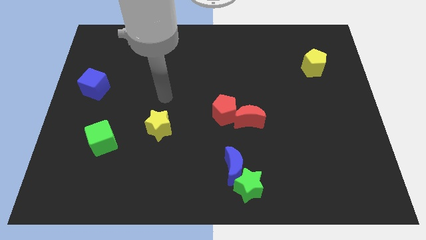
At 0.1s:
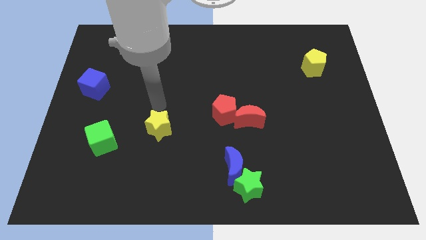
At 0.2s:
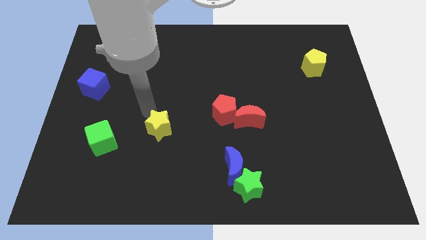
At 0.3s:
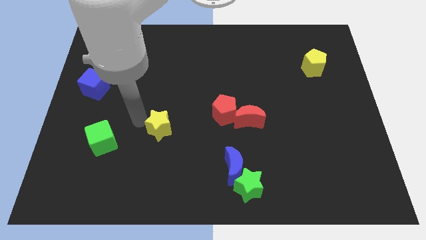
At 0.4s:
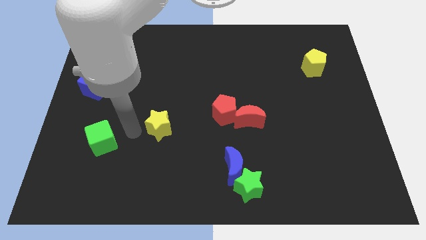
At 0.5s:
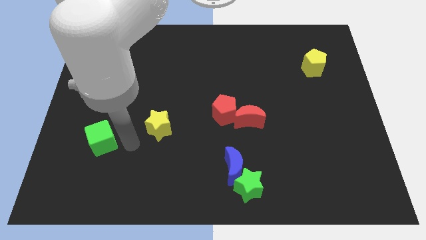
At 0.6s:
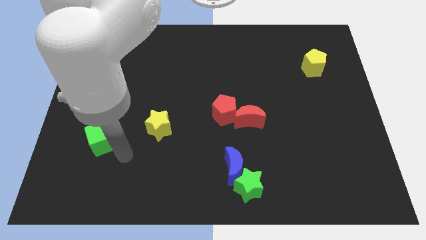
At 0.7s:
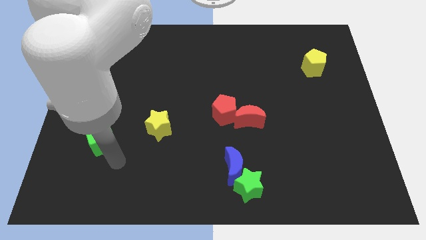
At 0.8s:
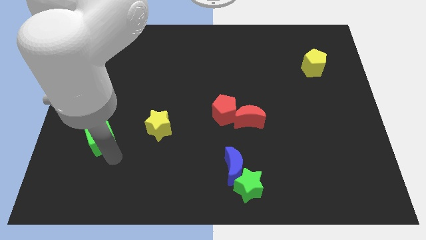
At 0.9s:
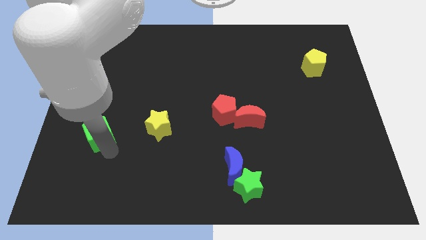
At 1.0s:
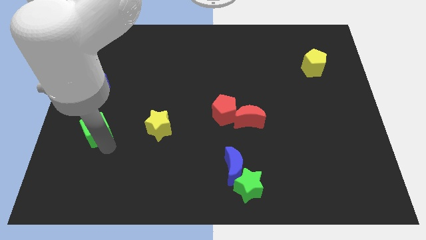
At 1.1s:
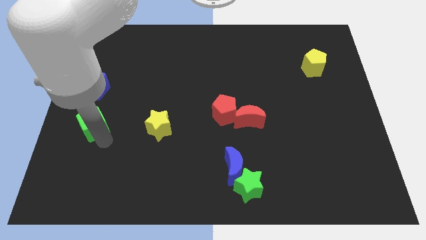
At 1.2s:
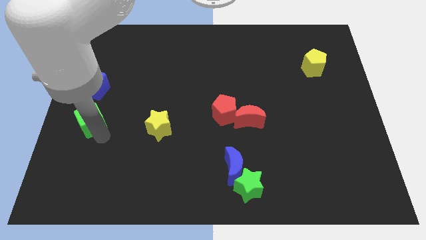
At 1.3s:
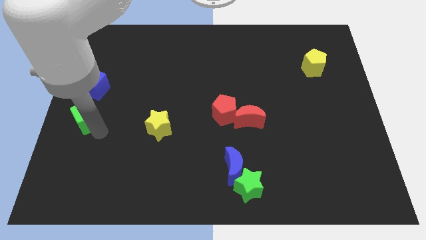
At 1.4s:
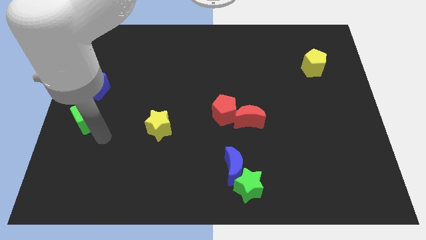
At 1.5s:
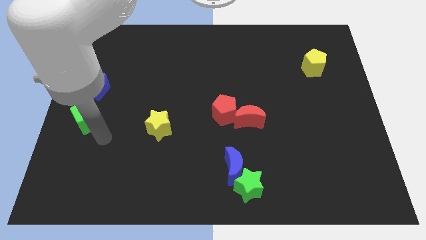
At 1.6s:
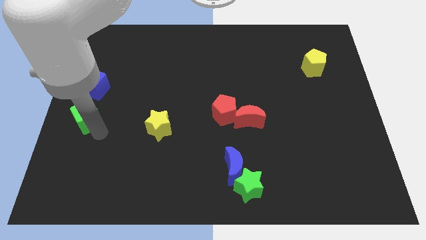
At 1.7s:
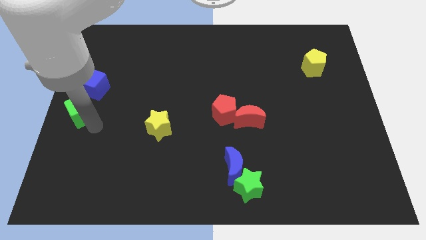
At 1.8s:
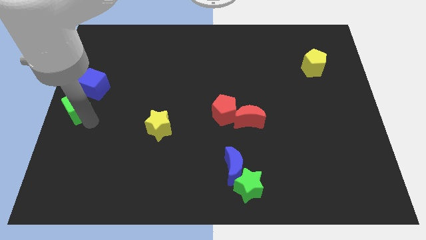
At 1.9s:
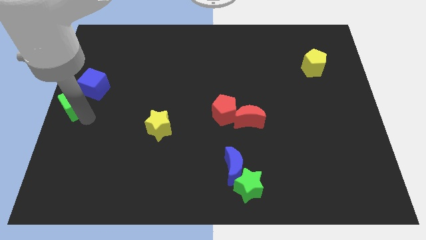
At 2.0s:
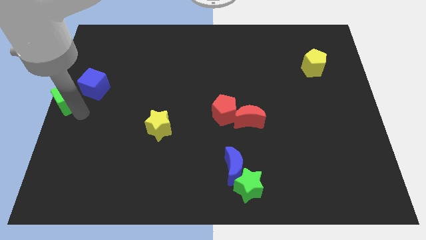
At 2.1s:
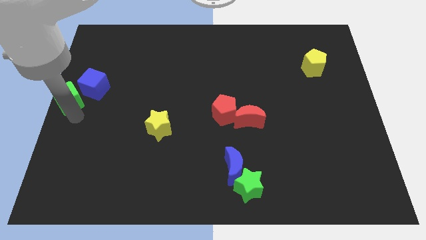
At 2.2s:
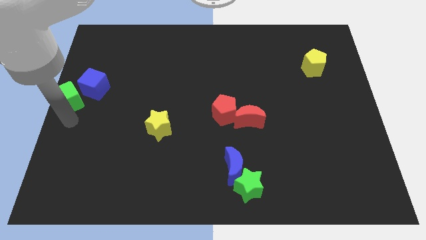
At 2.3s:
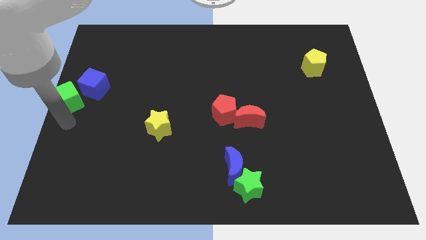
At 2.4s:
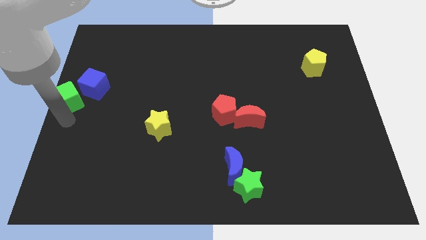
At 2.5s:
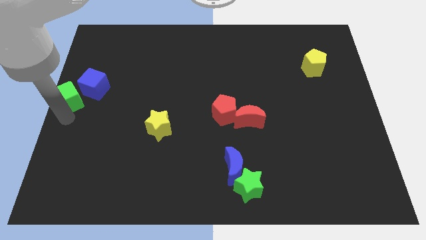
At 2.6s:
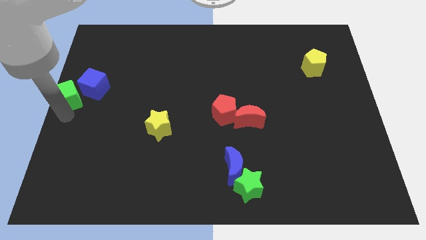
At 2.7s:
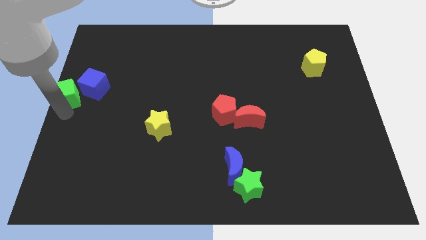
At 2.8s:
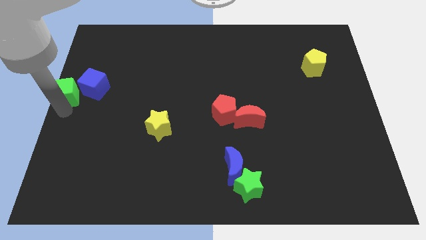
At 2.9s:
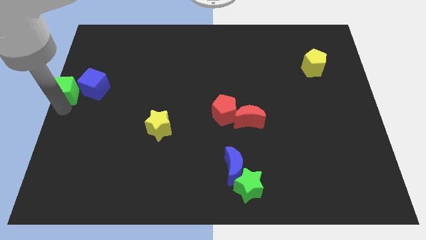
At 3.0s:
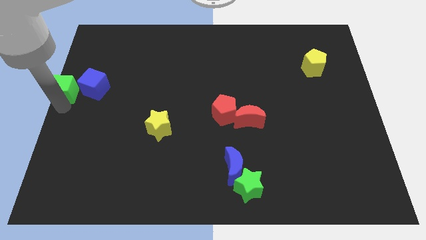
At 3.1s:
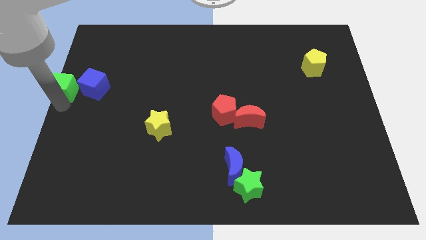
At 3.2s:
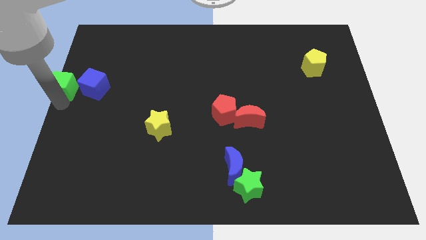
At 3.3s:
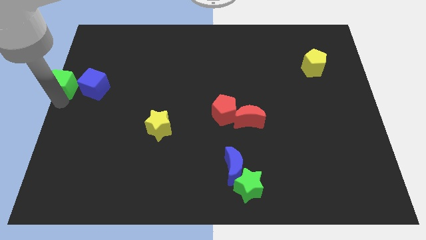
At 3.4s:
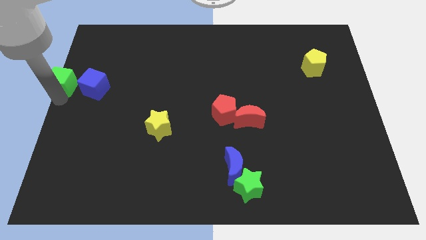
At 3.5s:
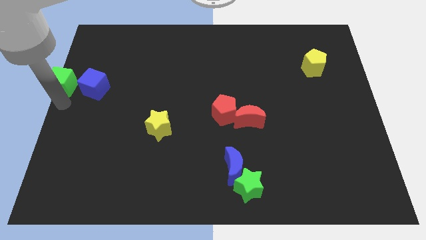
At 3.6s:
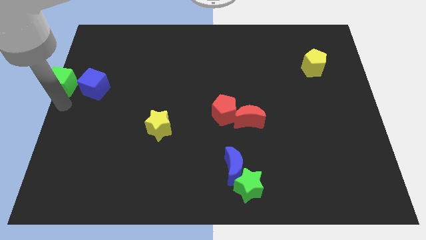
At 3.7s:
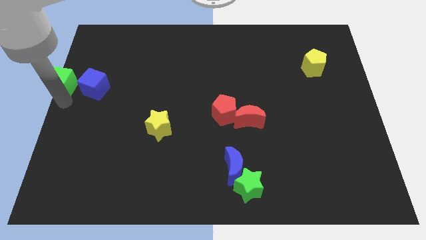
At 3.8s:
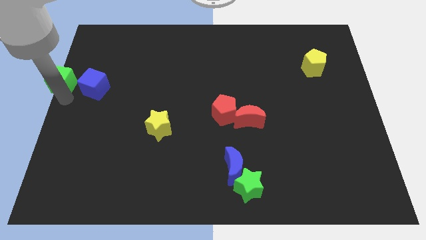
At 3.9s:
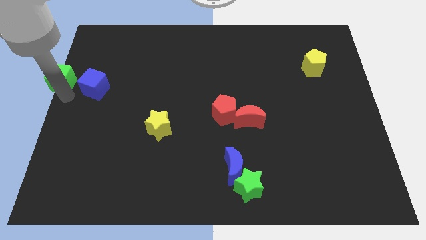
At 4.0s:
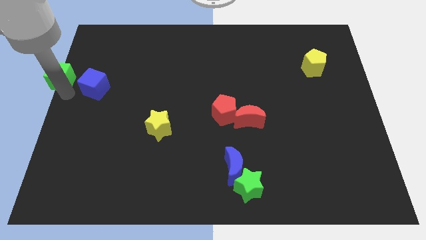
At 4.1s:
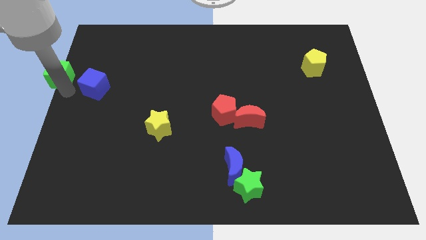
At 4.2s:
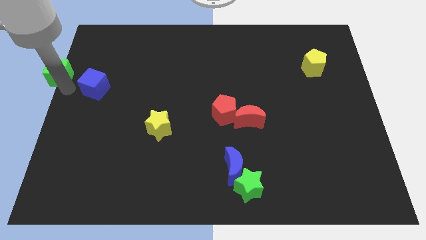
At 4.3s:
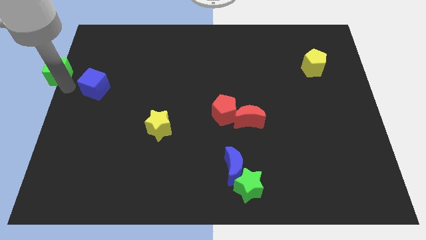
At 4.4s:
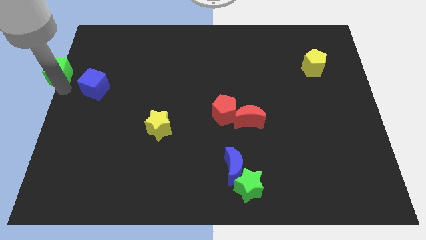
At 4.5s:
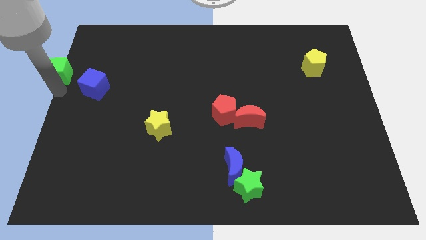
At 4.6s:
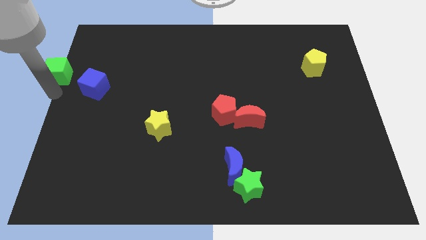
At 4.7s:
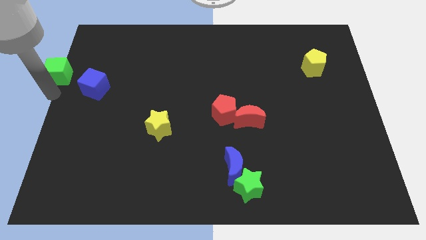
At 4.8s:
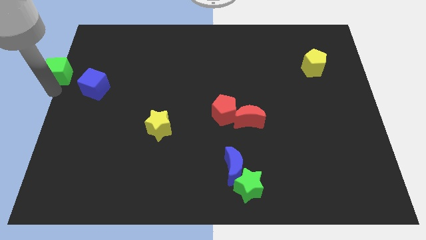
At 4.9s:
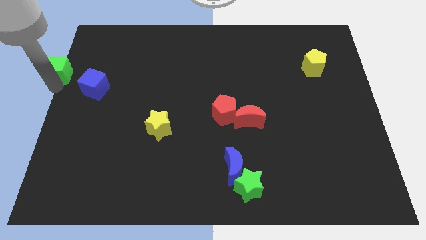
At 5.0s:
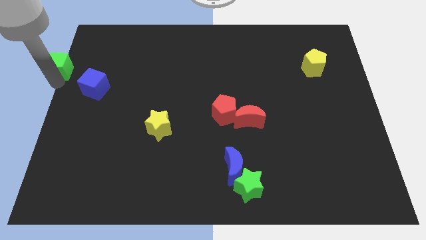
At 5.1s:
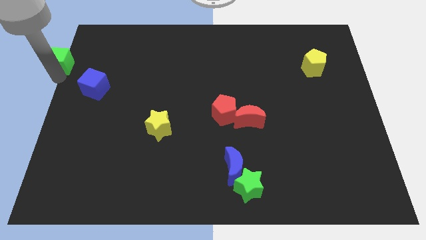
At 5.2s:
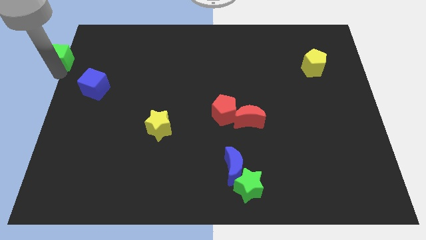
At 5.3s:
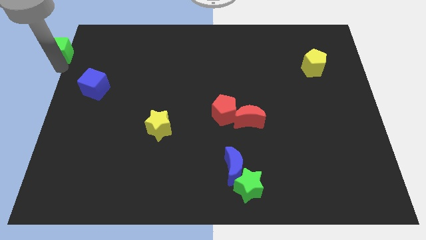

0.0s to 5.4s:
push the green cube to the upper left corner

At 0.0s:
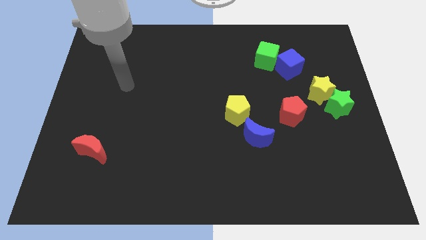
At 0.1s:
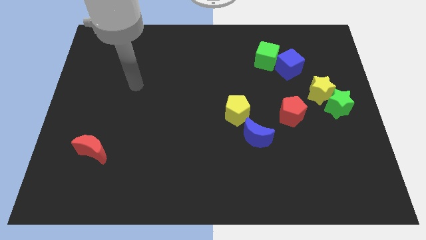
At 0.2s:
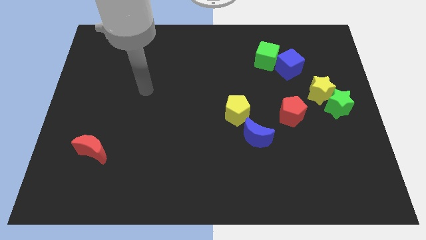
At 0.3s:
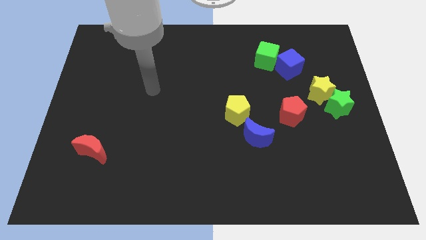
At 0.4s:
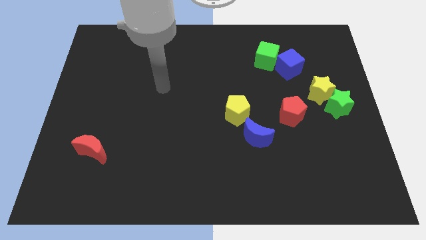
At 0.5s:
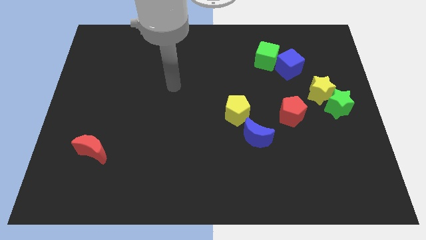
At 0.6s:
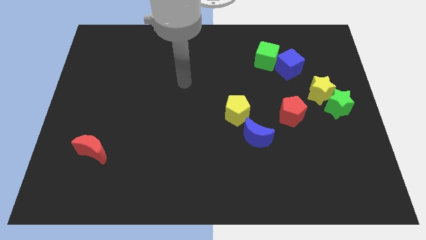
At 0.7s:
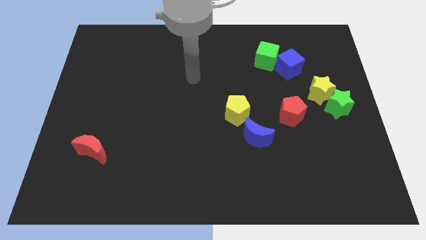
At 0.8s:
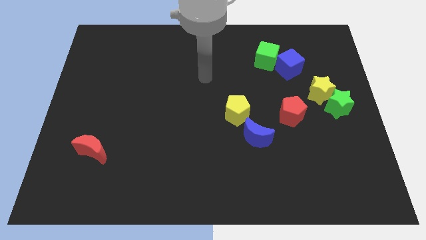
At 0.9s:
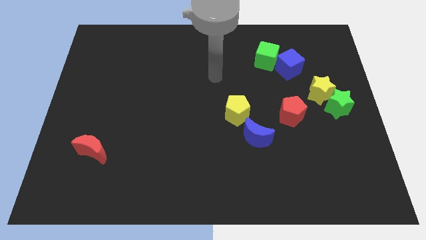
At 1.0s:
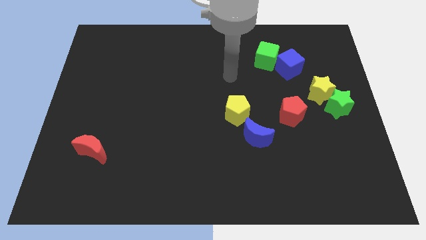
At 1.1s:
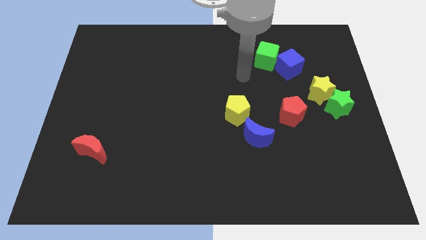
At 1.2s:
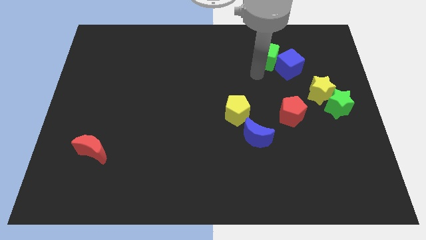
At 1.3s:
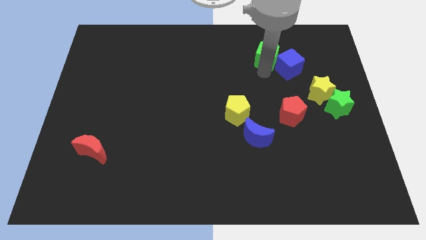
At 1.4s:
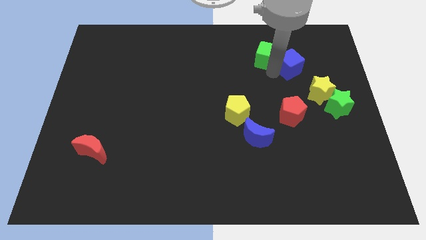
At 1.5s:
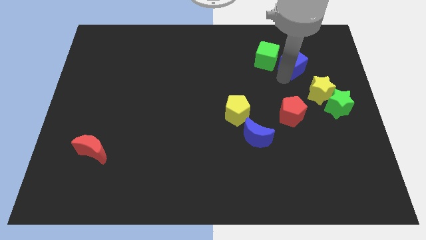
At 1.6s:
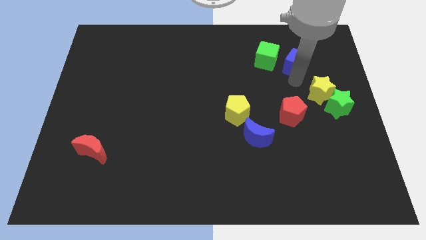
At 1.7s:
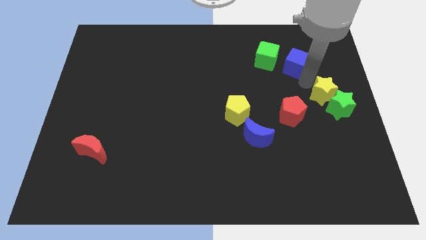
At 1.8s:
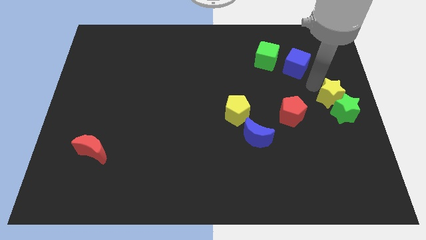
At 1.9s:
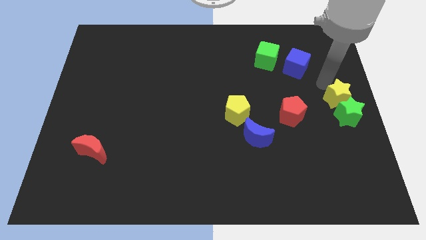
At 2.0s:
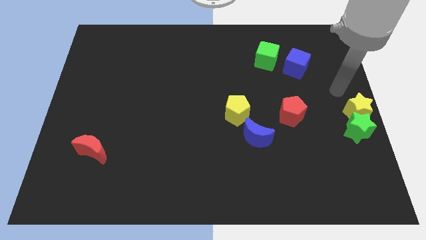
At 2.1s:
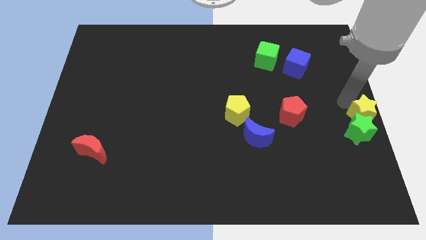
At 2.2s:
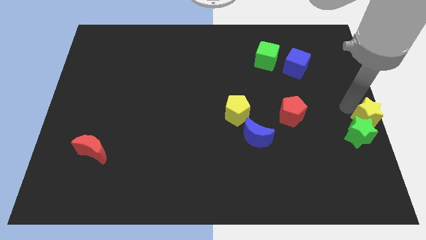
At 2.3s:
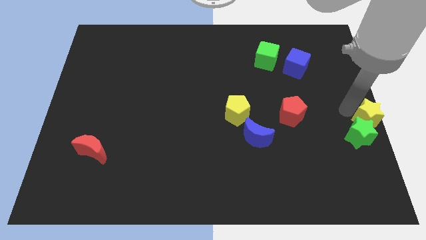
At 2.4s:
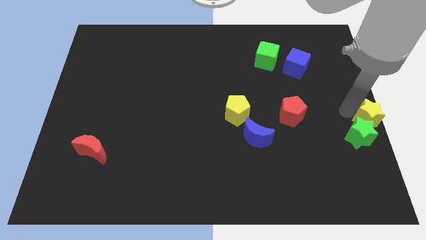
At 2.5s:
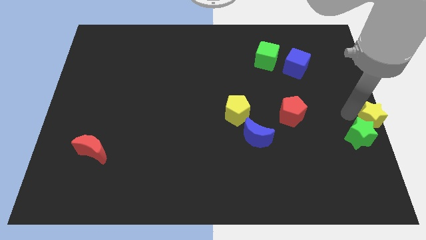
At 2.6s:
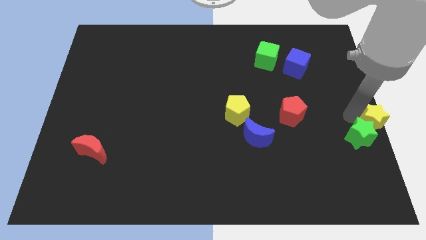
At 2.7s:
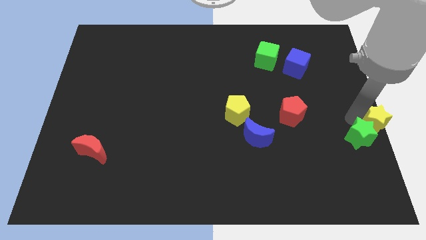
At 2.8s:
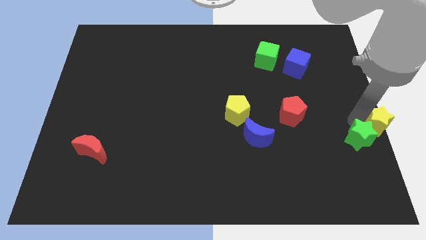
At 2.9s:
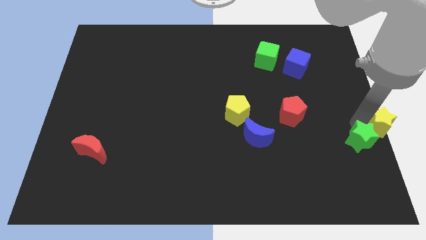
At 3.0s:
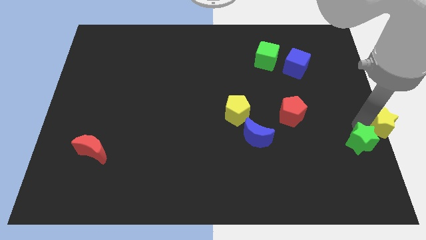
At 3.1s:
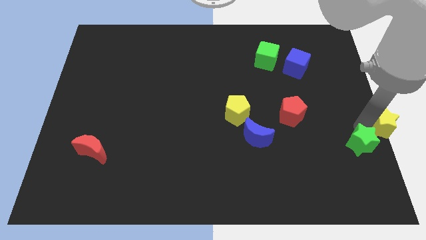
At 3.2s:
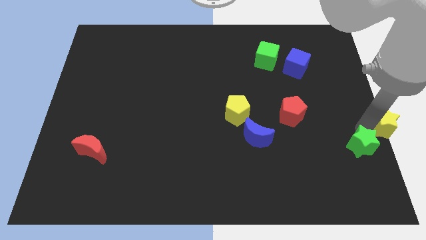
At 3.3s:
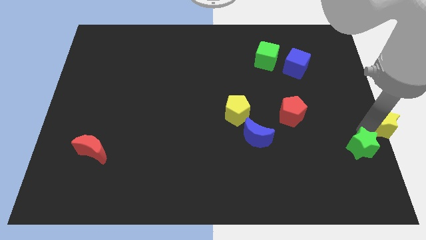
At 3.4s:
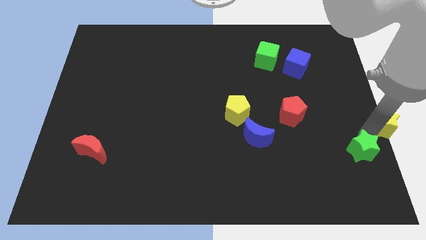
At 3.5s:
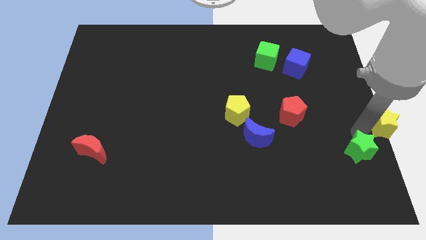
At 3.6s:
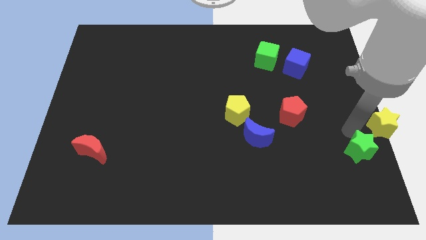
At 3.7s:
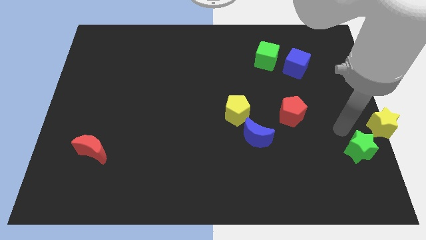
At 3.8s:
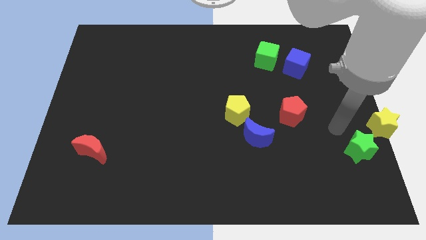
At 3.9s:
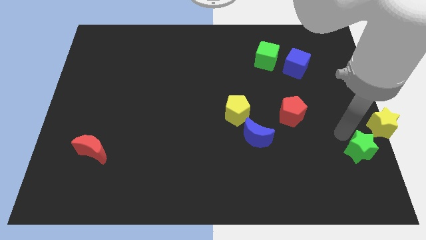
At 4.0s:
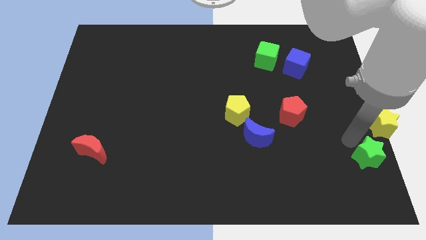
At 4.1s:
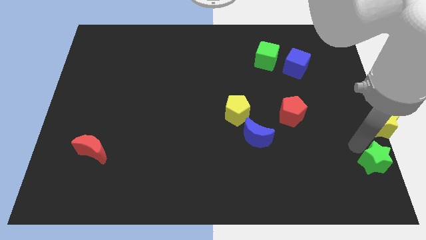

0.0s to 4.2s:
push the green star to the bottom right corner
